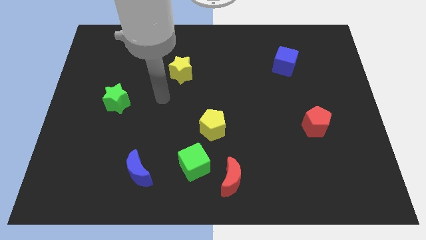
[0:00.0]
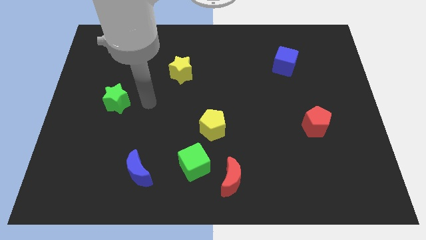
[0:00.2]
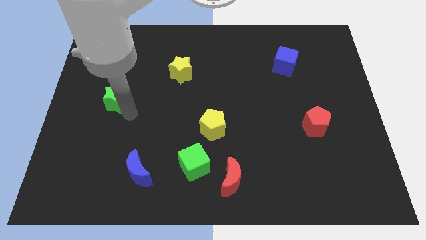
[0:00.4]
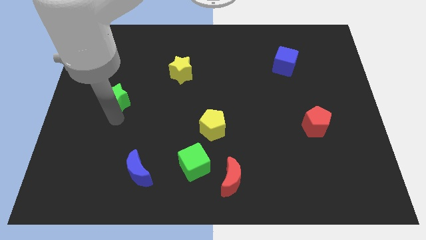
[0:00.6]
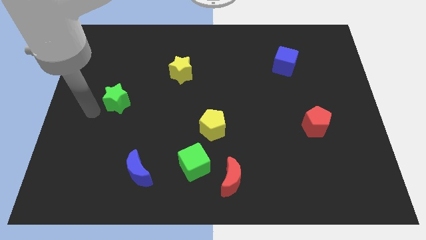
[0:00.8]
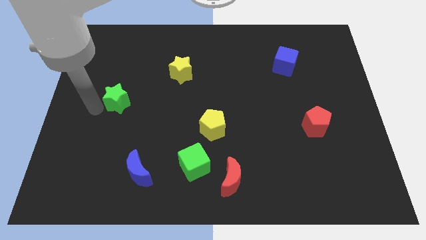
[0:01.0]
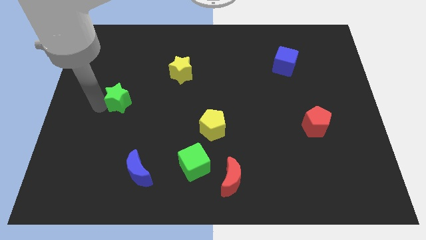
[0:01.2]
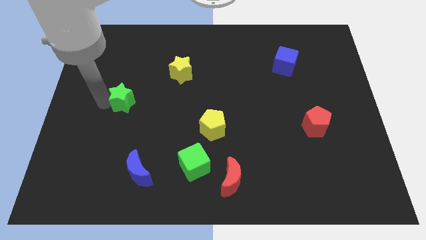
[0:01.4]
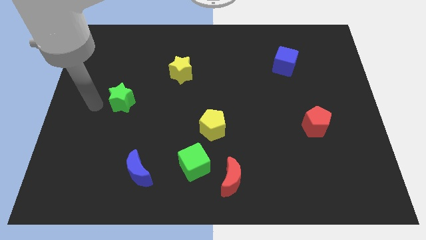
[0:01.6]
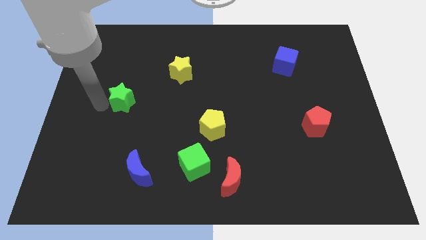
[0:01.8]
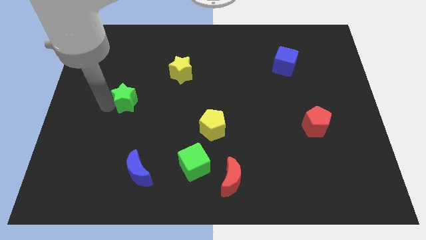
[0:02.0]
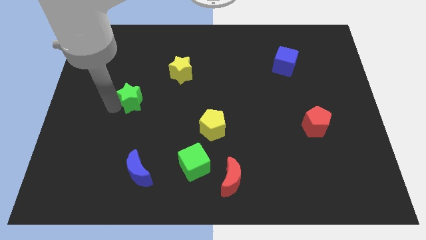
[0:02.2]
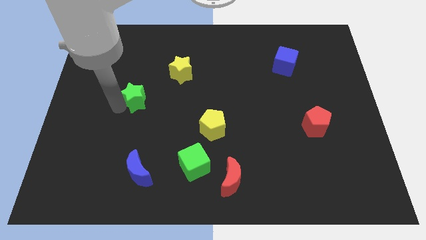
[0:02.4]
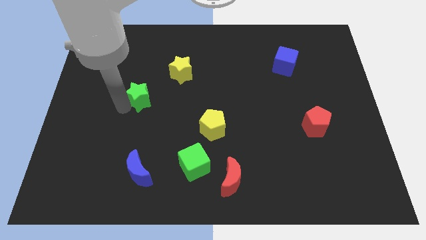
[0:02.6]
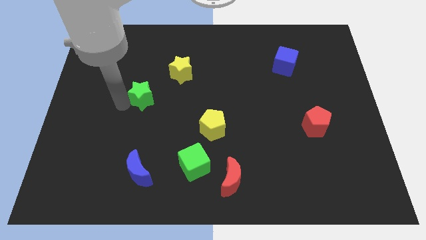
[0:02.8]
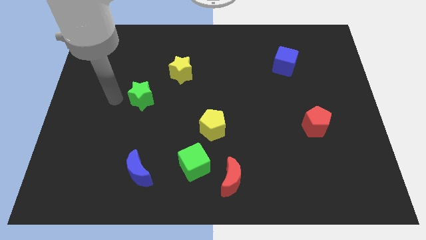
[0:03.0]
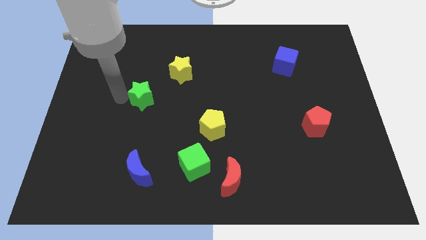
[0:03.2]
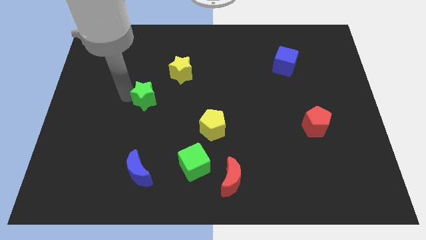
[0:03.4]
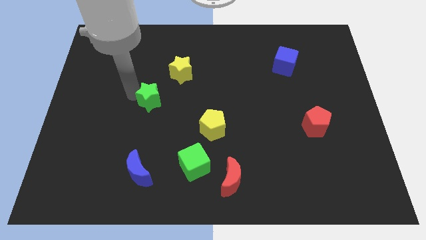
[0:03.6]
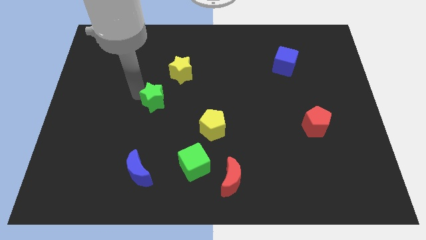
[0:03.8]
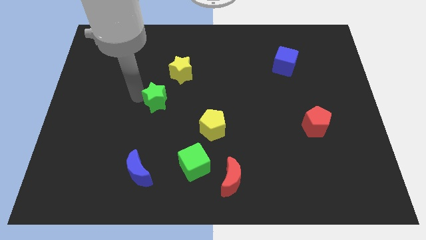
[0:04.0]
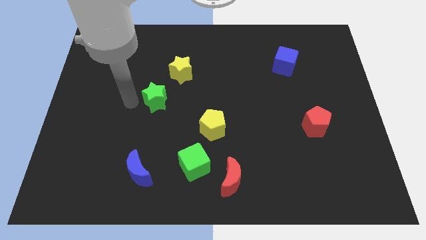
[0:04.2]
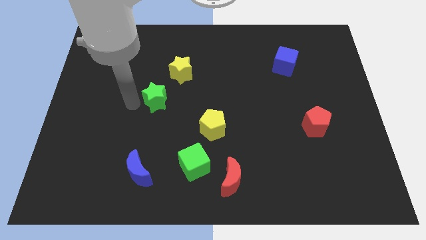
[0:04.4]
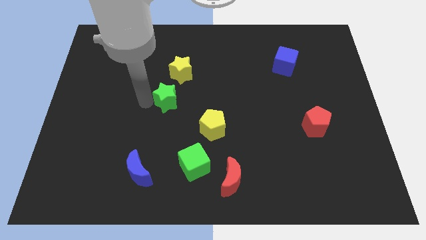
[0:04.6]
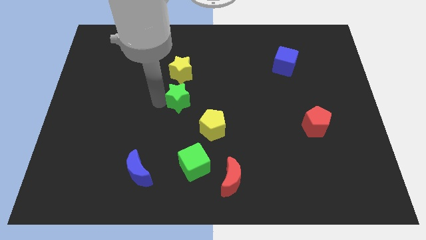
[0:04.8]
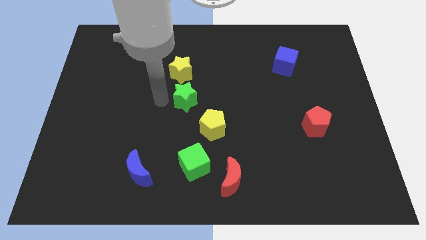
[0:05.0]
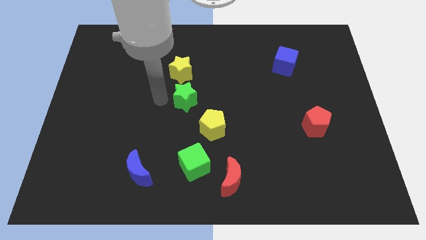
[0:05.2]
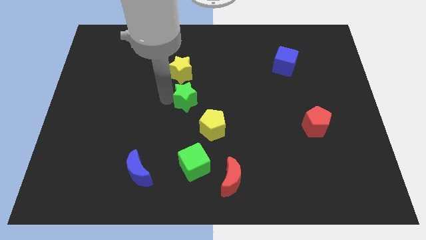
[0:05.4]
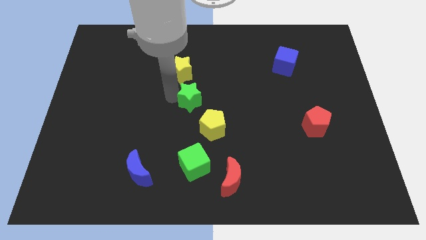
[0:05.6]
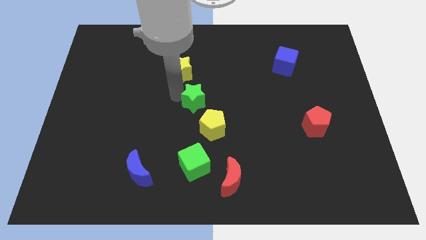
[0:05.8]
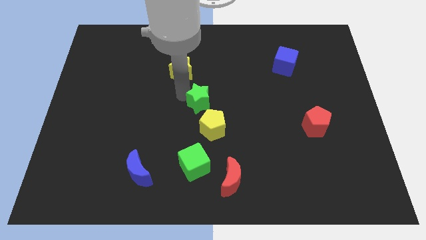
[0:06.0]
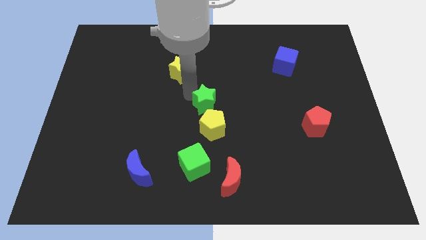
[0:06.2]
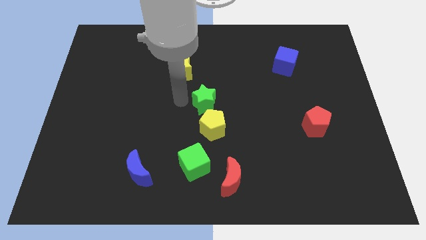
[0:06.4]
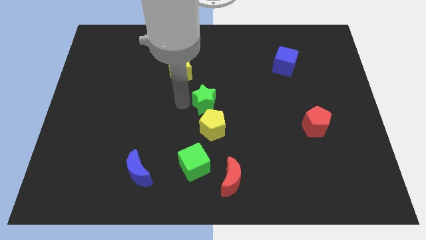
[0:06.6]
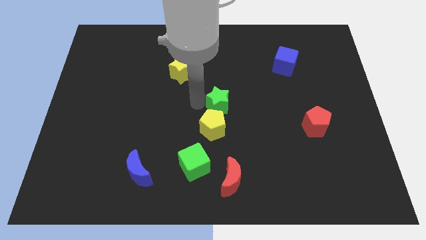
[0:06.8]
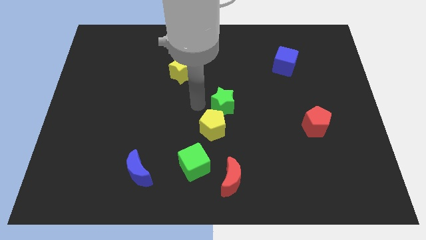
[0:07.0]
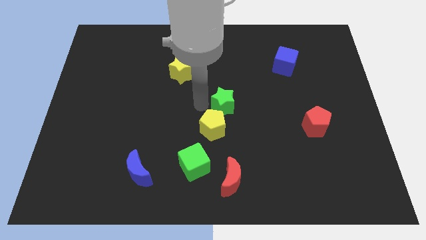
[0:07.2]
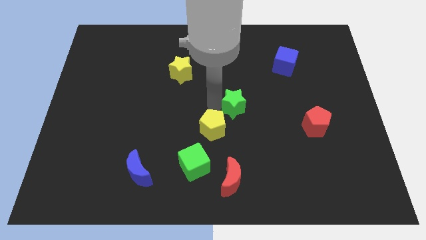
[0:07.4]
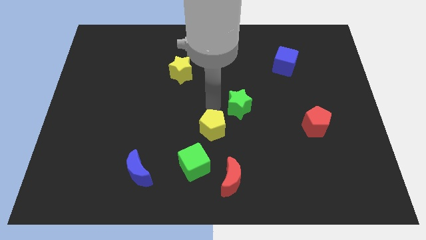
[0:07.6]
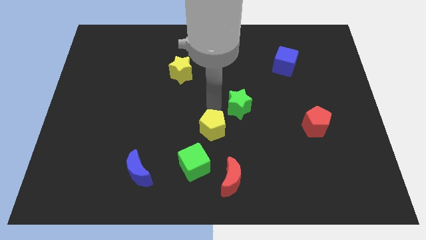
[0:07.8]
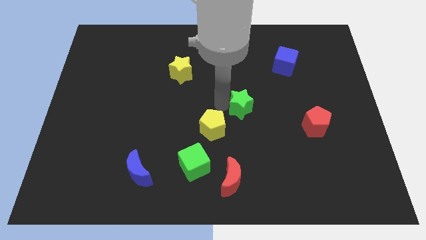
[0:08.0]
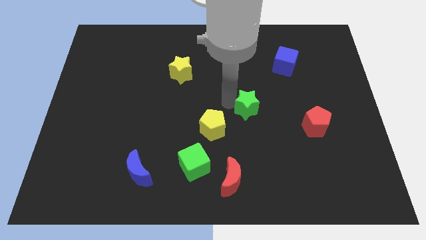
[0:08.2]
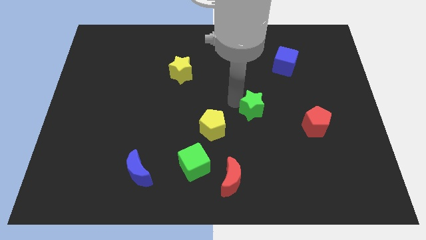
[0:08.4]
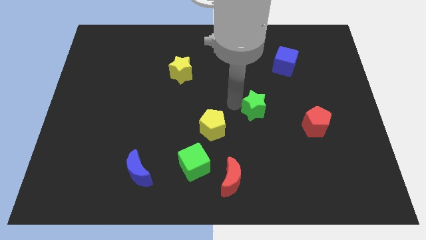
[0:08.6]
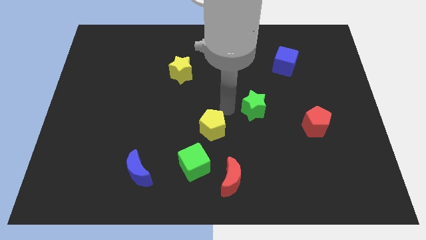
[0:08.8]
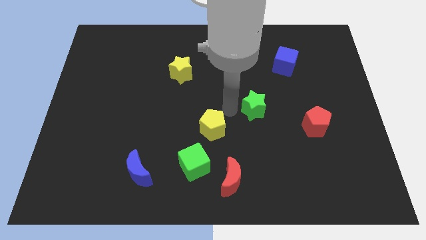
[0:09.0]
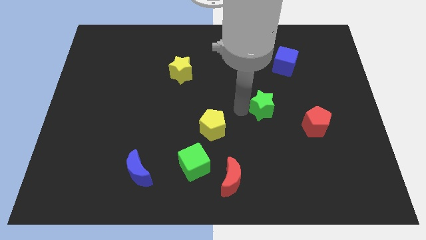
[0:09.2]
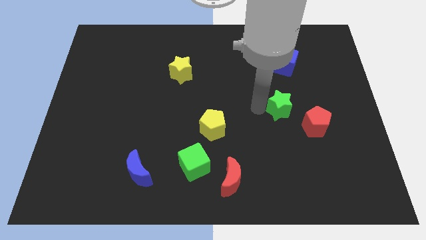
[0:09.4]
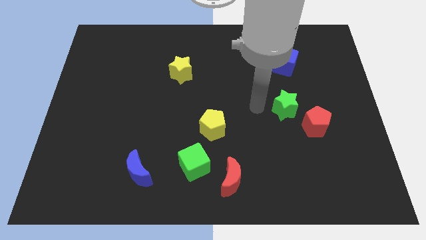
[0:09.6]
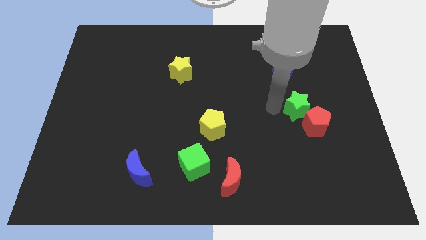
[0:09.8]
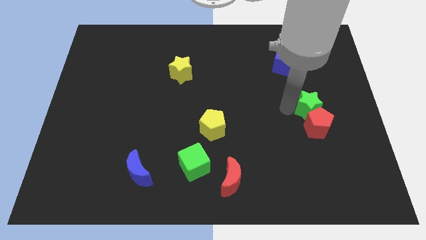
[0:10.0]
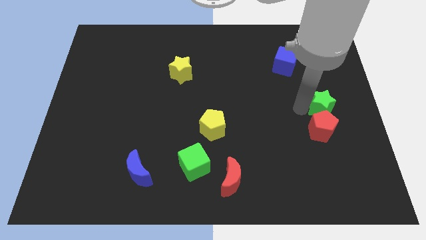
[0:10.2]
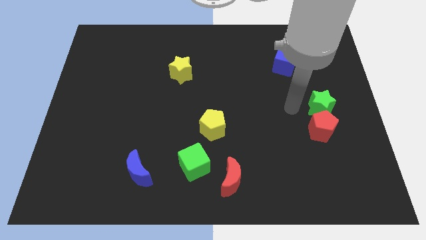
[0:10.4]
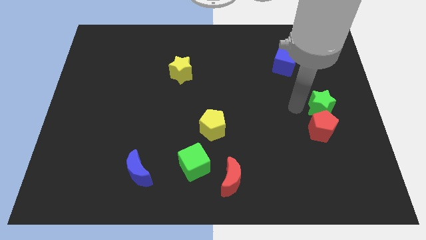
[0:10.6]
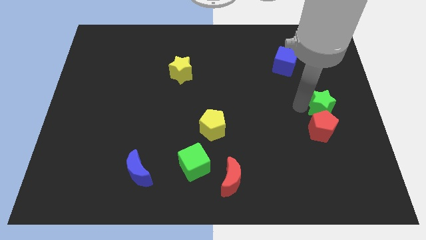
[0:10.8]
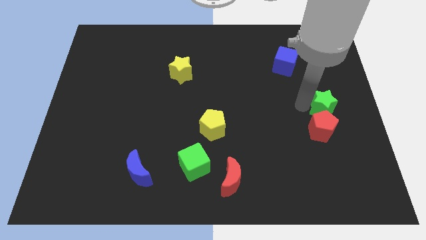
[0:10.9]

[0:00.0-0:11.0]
push the green star to the center right

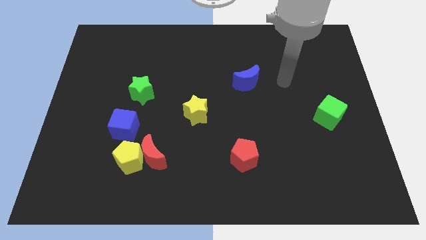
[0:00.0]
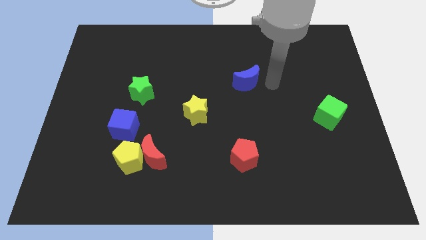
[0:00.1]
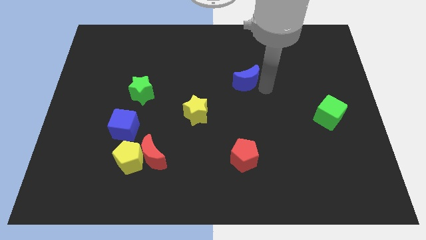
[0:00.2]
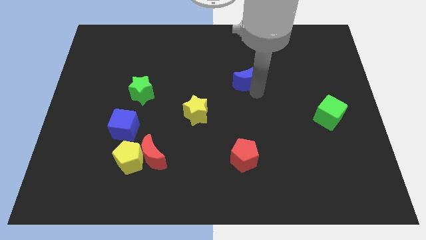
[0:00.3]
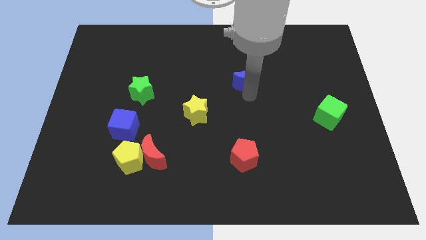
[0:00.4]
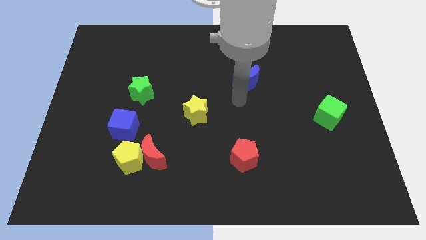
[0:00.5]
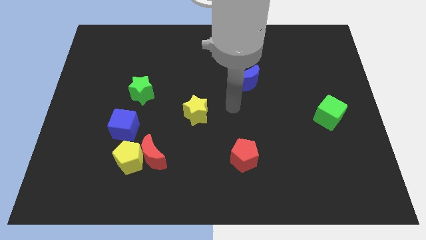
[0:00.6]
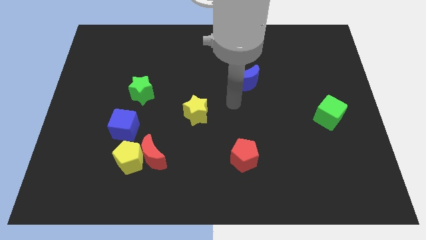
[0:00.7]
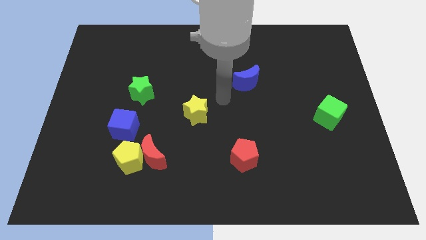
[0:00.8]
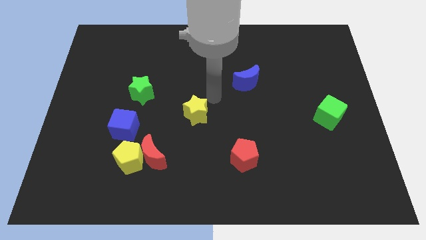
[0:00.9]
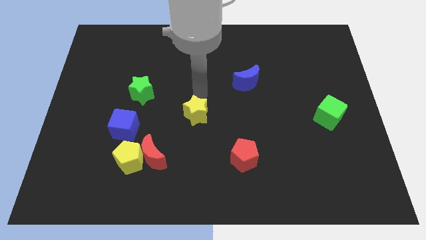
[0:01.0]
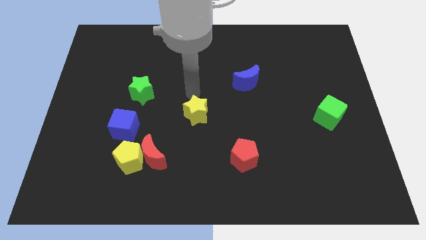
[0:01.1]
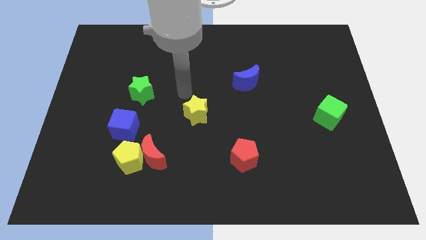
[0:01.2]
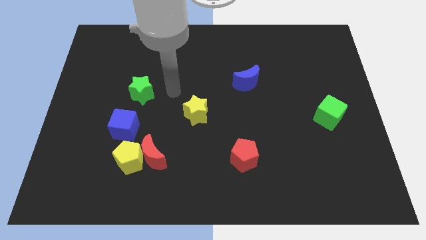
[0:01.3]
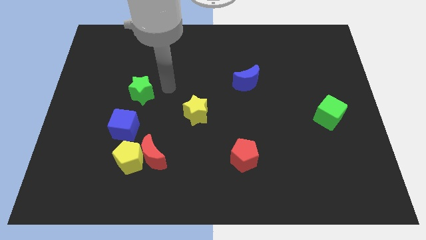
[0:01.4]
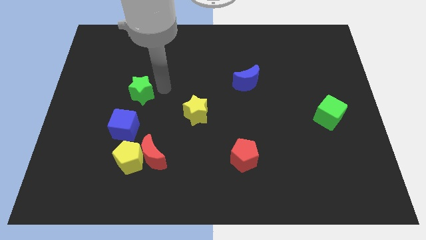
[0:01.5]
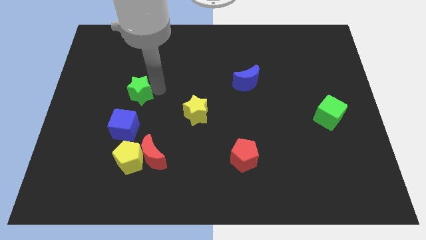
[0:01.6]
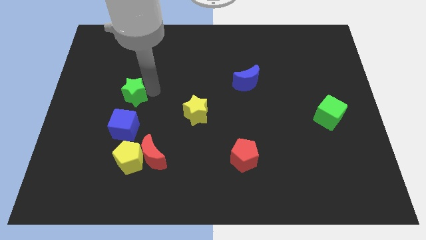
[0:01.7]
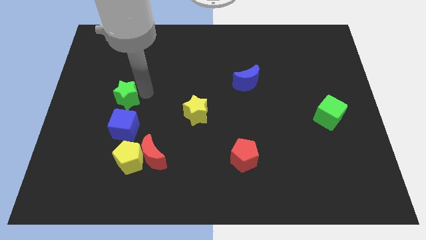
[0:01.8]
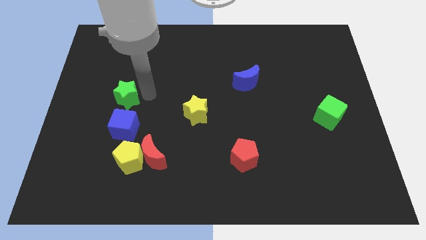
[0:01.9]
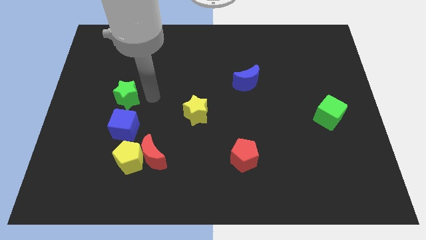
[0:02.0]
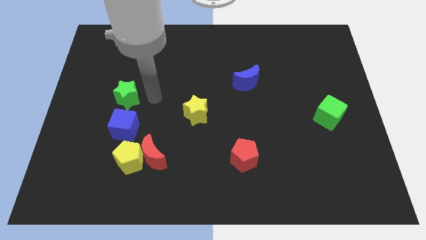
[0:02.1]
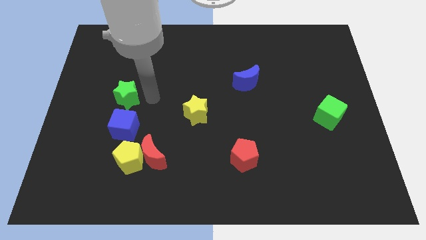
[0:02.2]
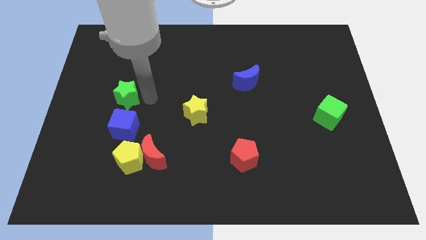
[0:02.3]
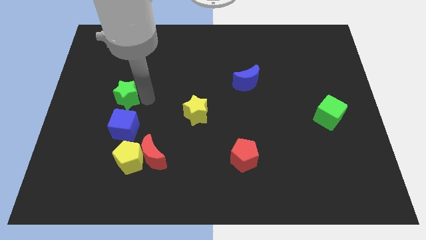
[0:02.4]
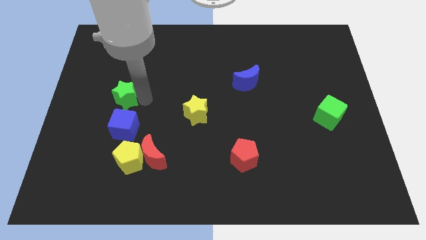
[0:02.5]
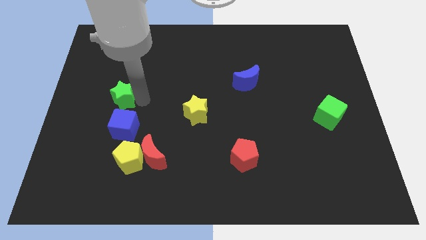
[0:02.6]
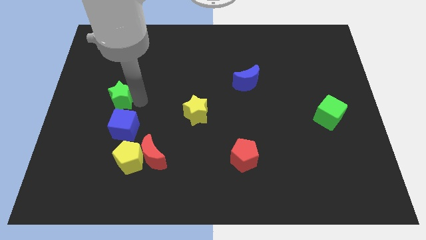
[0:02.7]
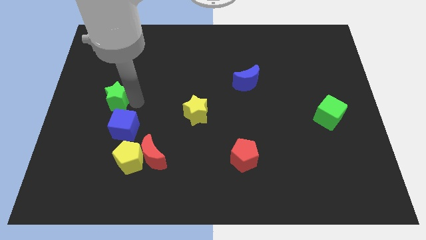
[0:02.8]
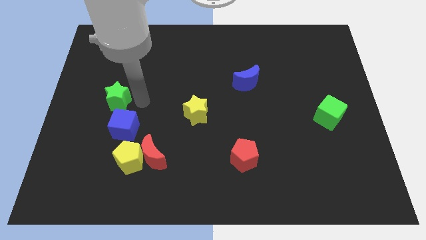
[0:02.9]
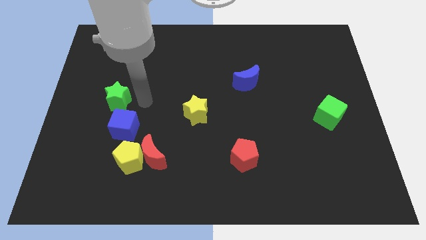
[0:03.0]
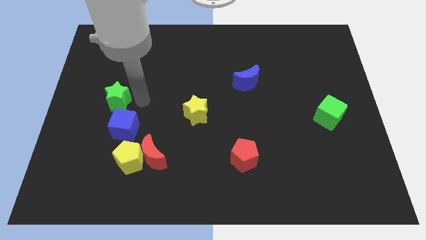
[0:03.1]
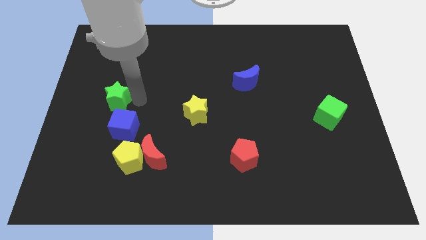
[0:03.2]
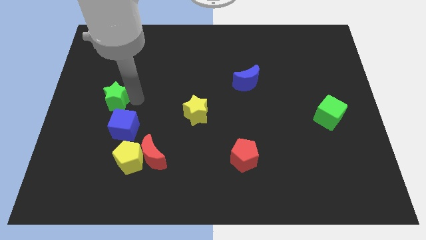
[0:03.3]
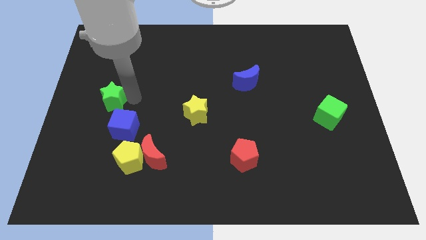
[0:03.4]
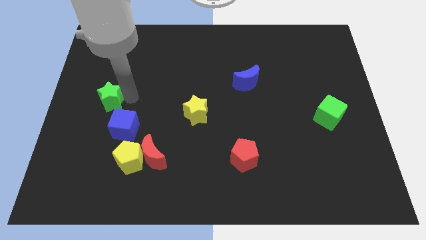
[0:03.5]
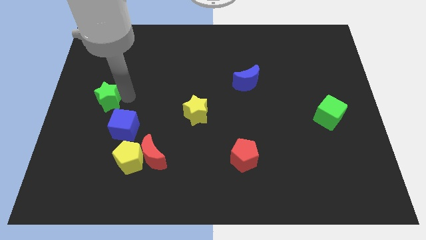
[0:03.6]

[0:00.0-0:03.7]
move the green star to the left side
